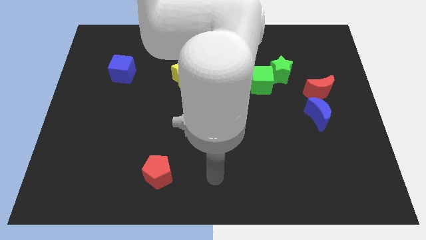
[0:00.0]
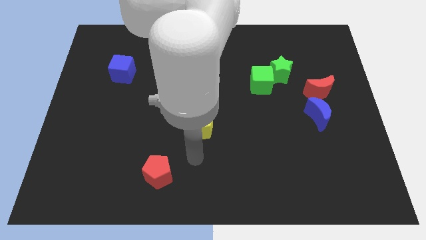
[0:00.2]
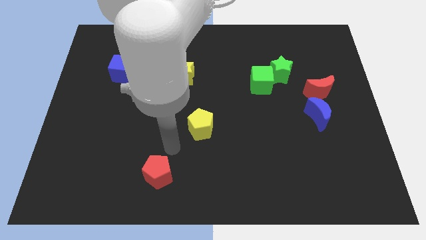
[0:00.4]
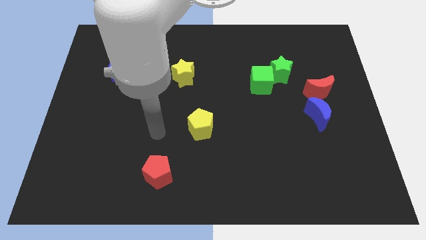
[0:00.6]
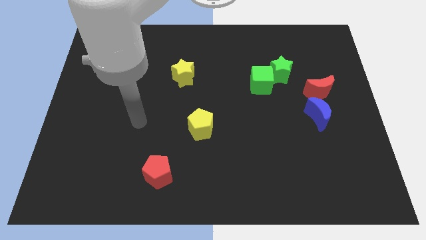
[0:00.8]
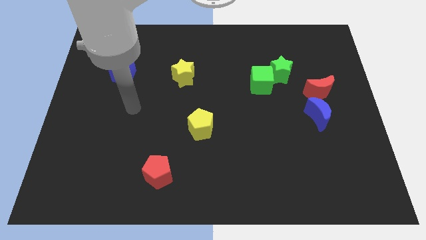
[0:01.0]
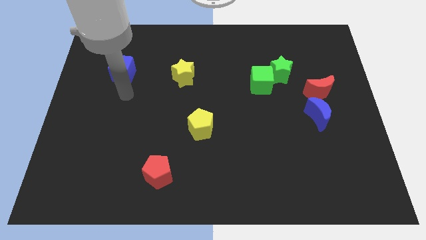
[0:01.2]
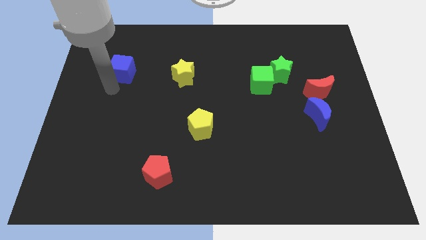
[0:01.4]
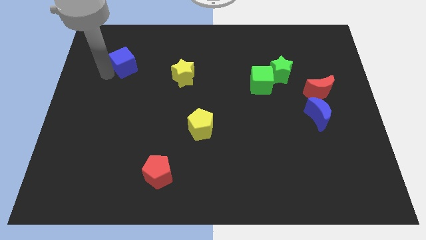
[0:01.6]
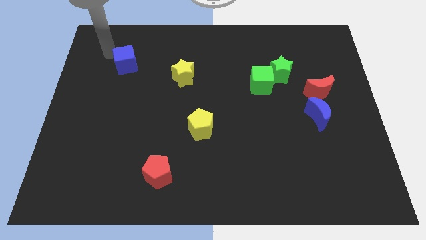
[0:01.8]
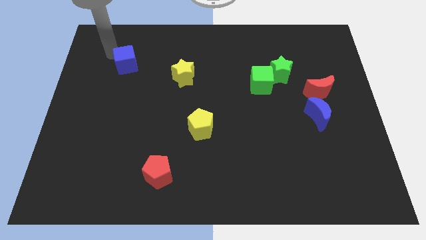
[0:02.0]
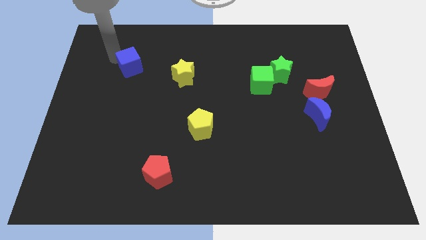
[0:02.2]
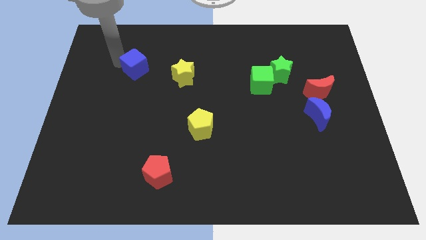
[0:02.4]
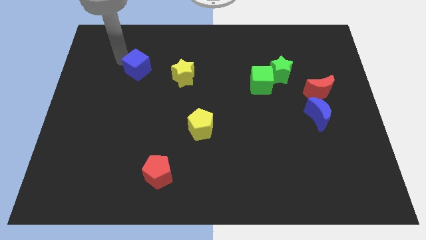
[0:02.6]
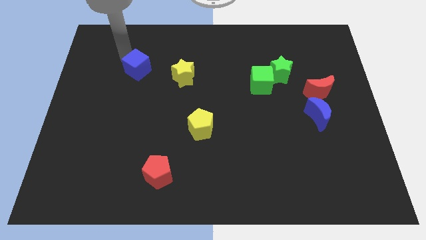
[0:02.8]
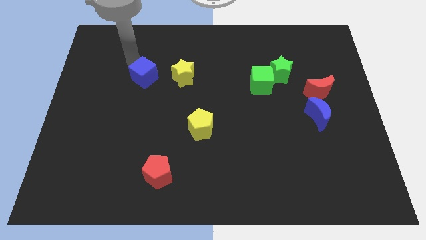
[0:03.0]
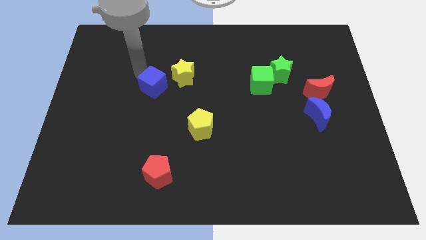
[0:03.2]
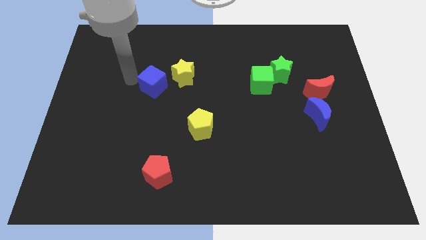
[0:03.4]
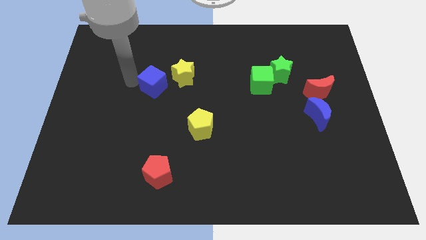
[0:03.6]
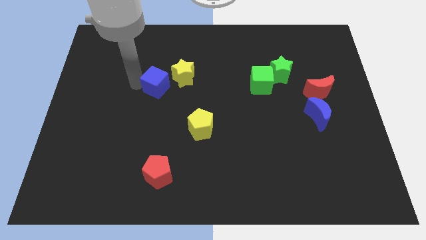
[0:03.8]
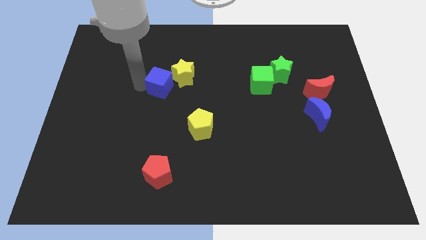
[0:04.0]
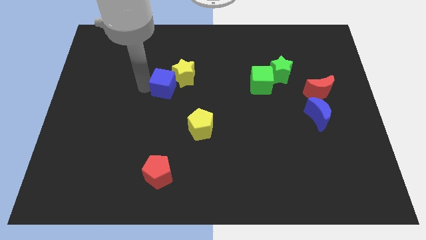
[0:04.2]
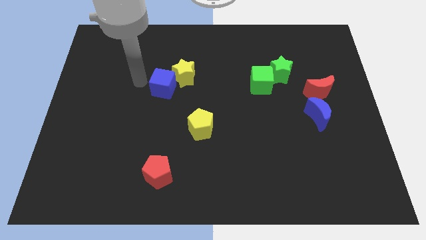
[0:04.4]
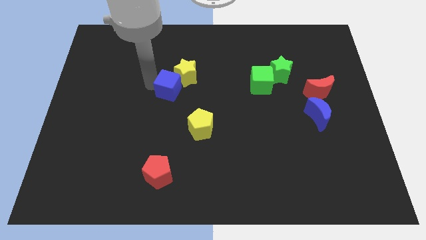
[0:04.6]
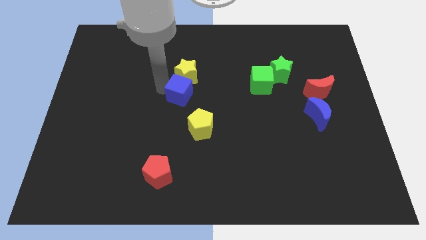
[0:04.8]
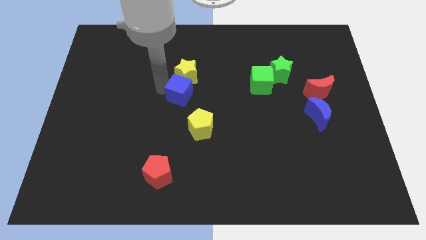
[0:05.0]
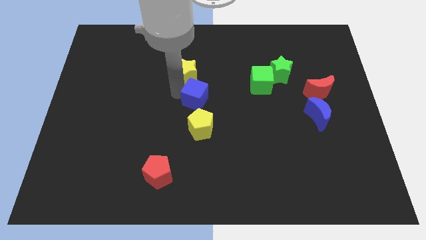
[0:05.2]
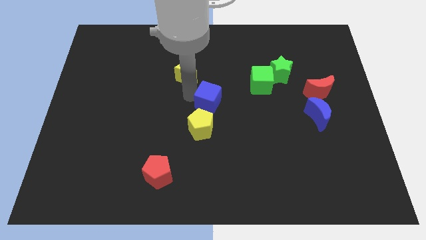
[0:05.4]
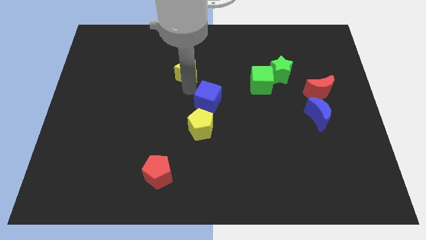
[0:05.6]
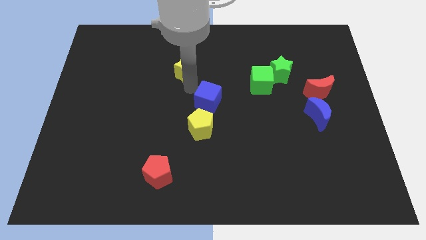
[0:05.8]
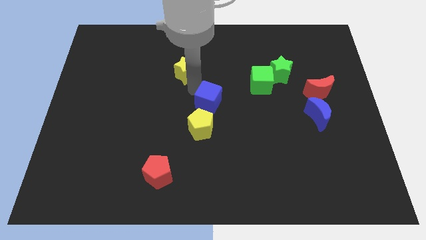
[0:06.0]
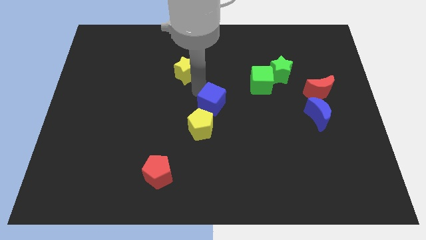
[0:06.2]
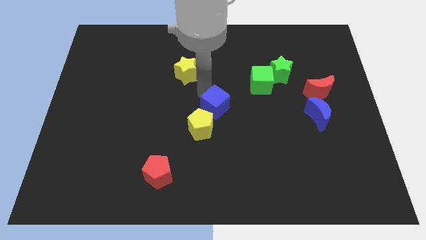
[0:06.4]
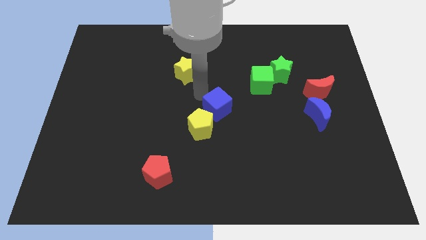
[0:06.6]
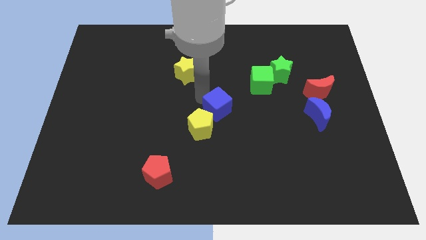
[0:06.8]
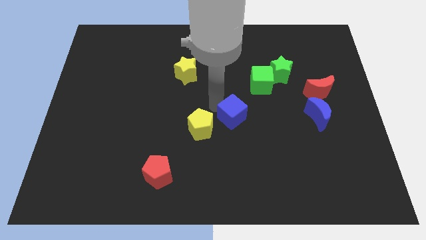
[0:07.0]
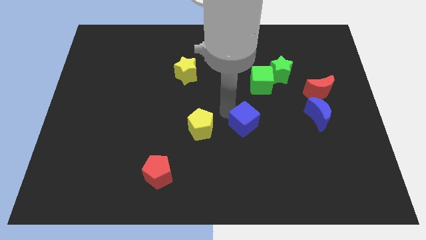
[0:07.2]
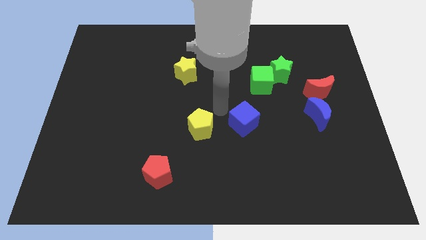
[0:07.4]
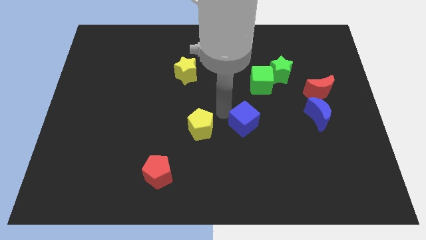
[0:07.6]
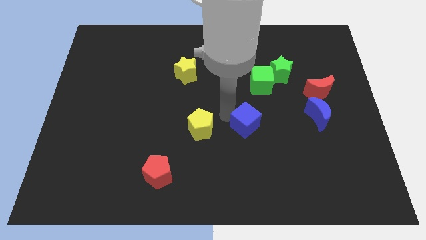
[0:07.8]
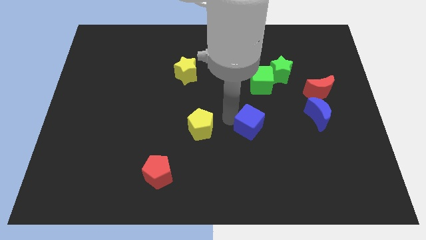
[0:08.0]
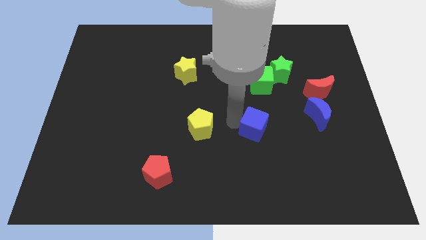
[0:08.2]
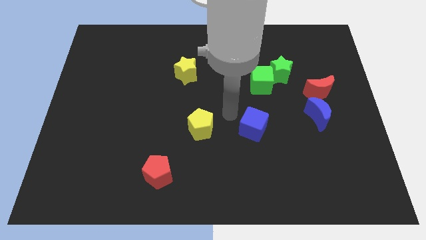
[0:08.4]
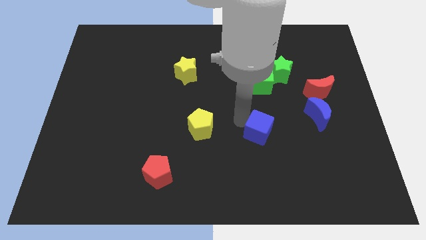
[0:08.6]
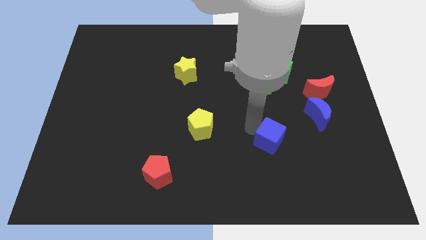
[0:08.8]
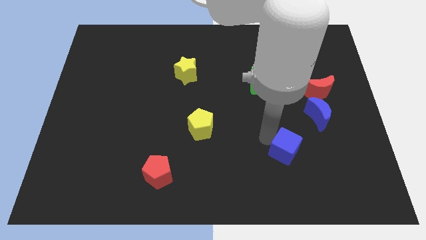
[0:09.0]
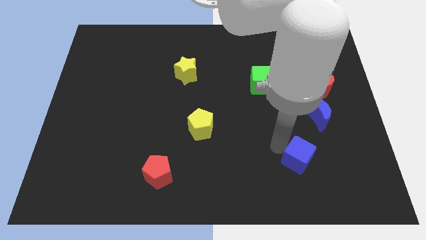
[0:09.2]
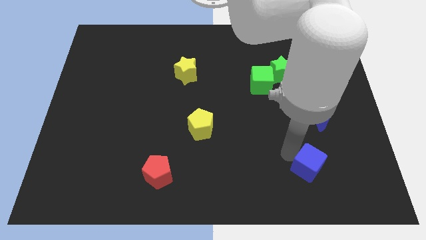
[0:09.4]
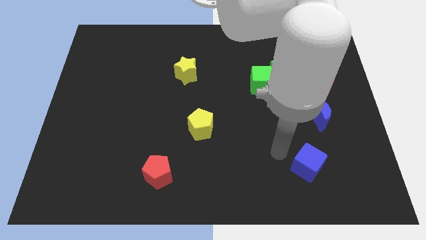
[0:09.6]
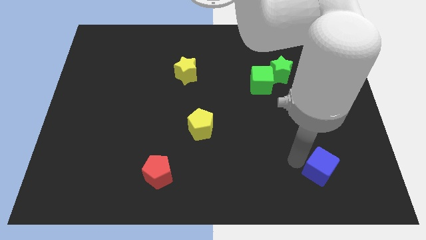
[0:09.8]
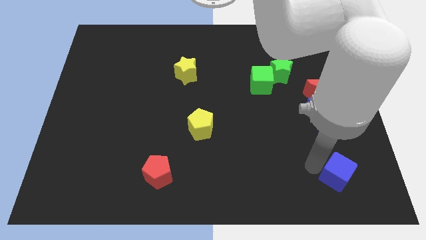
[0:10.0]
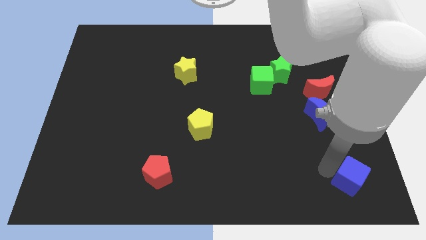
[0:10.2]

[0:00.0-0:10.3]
put the blue cube to the bottom right of the board

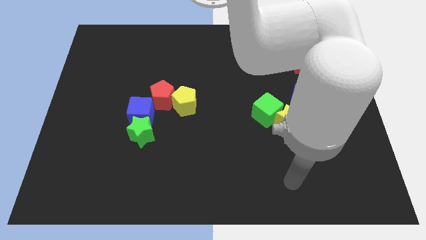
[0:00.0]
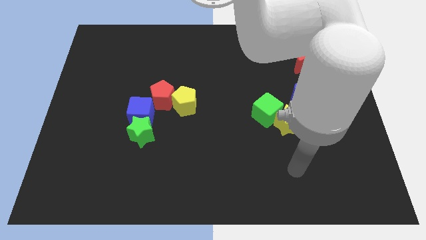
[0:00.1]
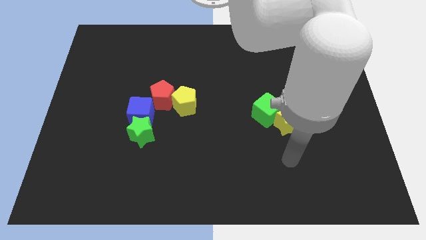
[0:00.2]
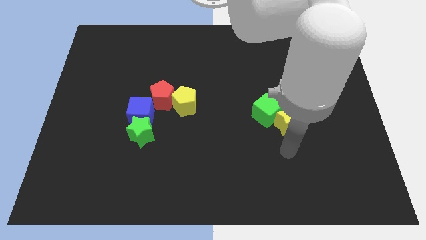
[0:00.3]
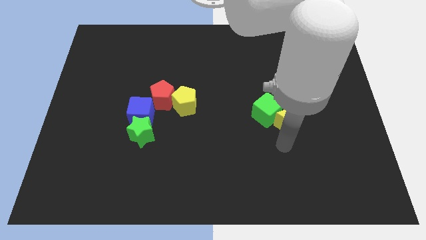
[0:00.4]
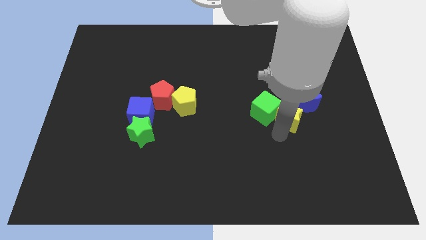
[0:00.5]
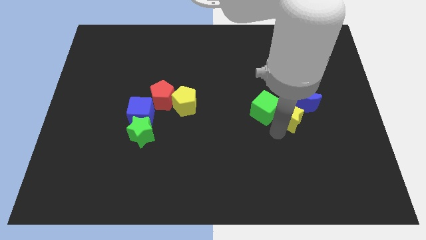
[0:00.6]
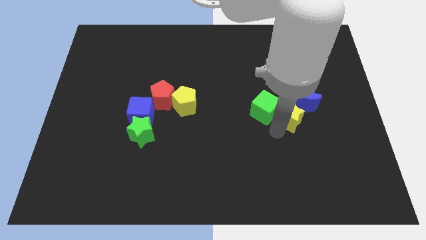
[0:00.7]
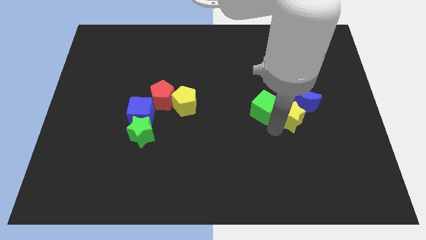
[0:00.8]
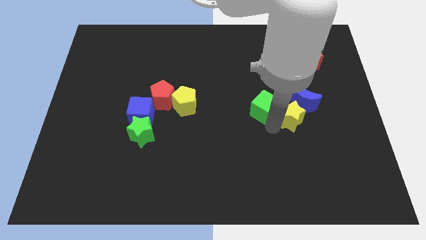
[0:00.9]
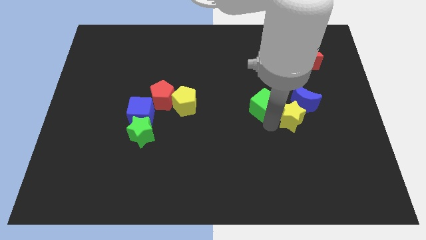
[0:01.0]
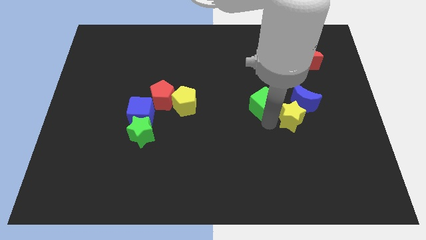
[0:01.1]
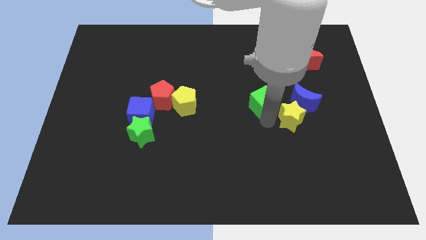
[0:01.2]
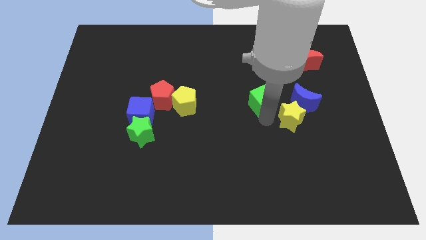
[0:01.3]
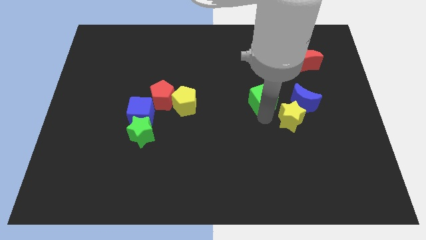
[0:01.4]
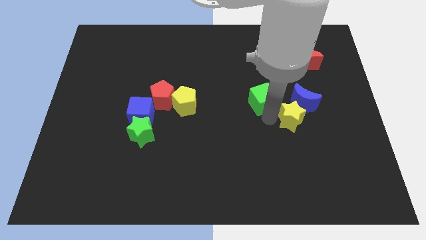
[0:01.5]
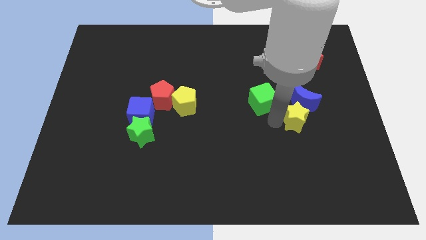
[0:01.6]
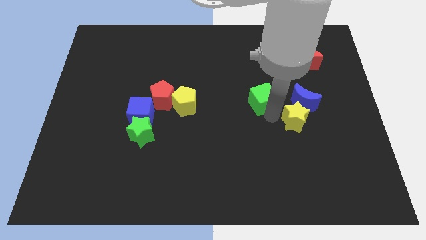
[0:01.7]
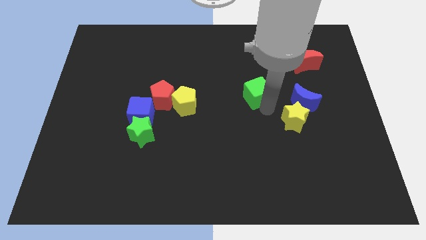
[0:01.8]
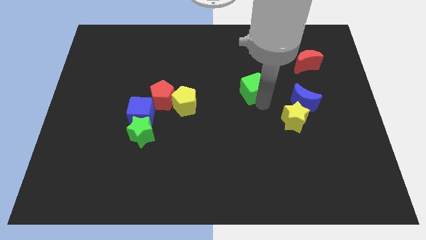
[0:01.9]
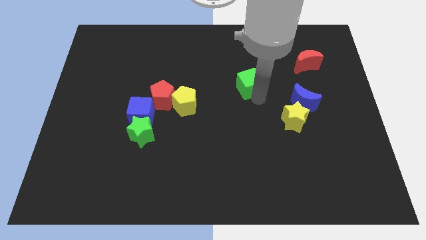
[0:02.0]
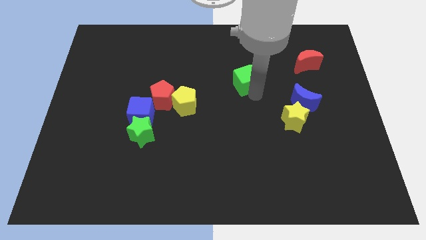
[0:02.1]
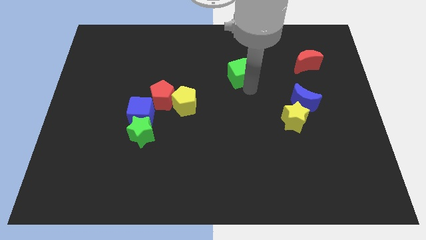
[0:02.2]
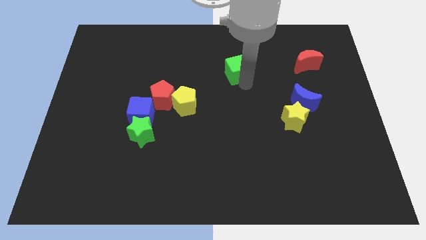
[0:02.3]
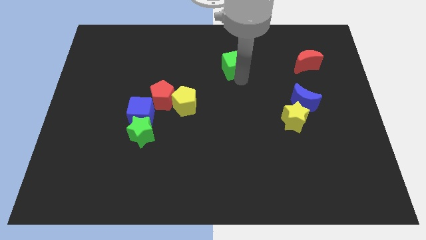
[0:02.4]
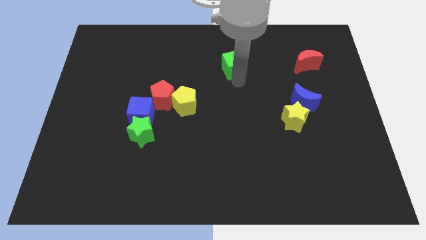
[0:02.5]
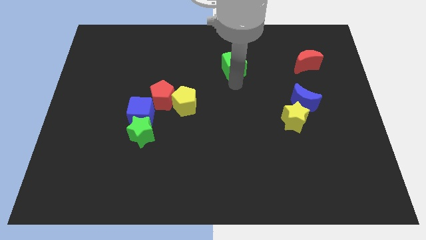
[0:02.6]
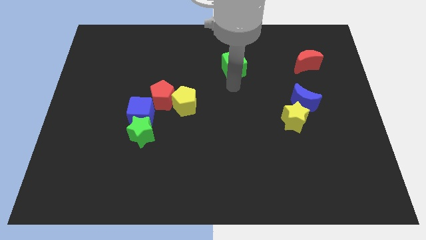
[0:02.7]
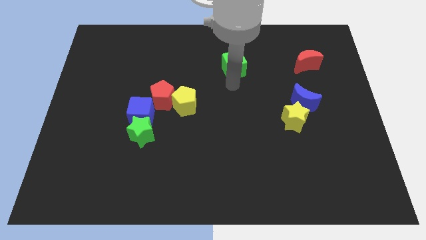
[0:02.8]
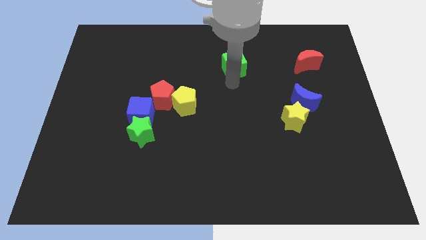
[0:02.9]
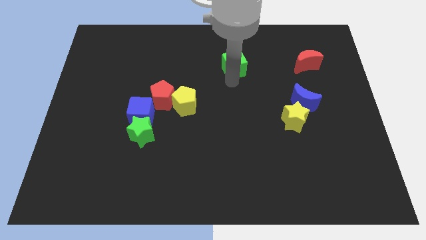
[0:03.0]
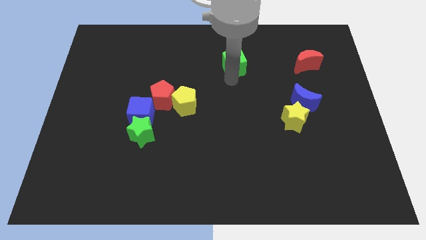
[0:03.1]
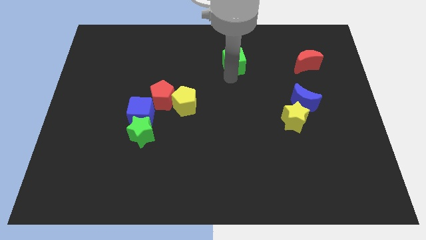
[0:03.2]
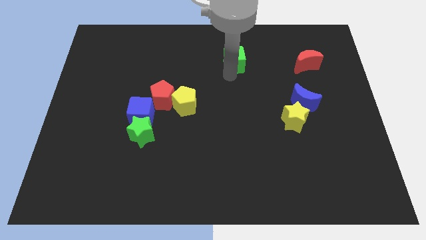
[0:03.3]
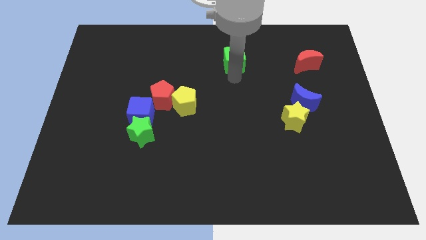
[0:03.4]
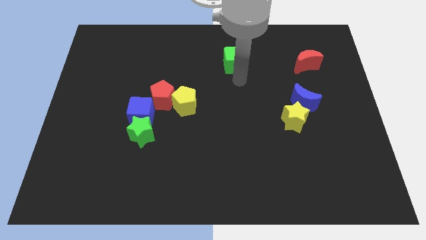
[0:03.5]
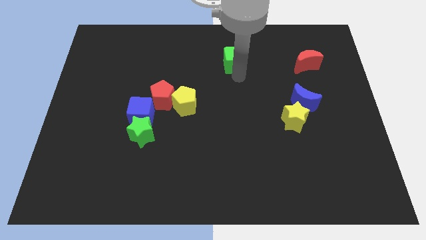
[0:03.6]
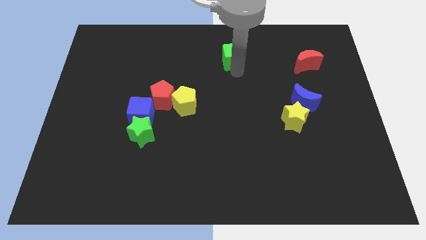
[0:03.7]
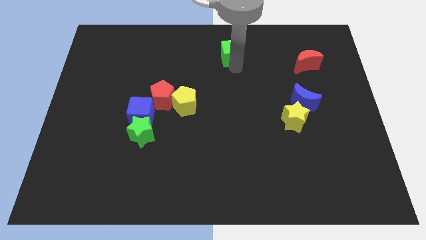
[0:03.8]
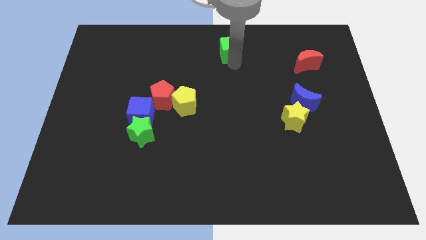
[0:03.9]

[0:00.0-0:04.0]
move the green cube to the towards your base
